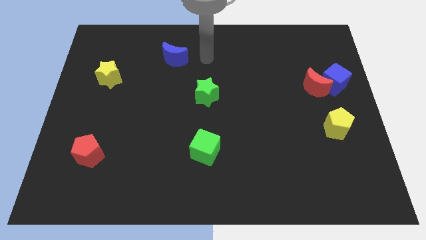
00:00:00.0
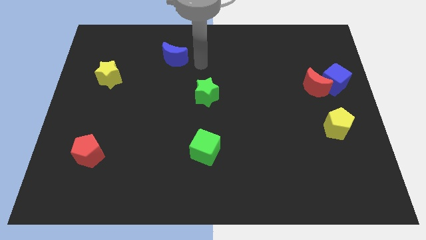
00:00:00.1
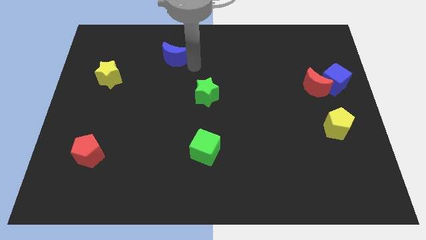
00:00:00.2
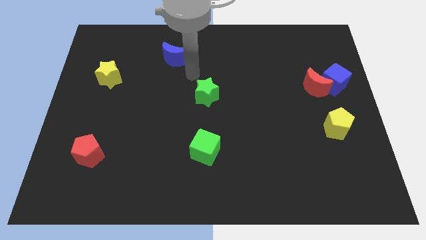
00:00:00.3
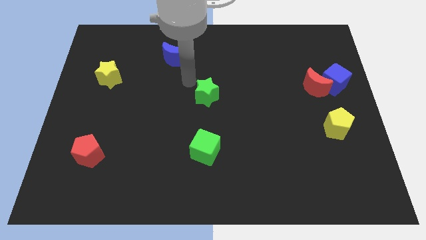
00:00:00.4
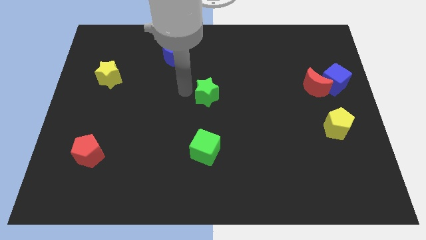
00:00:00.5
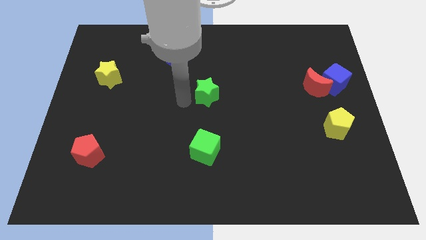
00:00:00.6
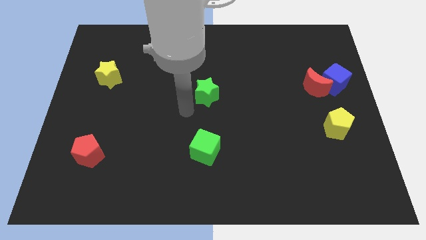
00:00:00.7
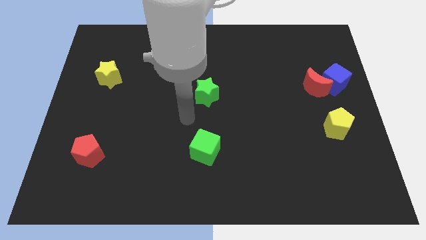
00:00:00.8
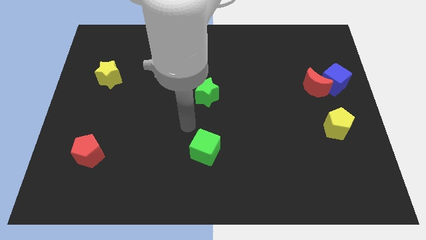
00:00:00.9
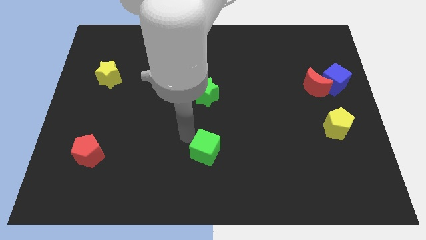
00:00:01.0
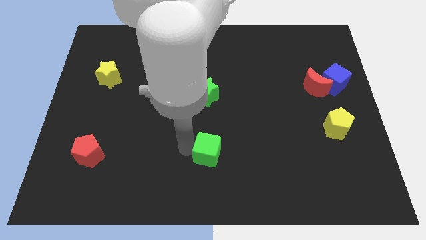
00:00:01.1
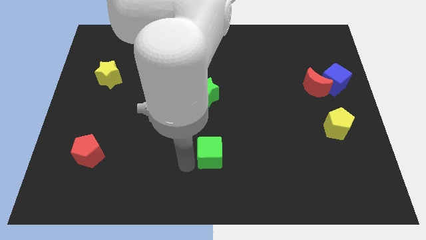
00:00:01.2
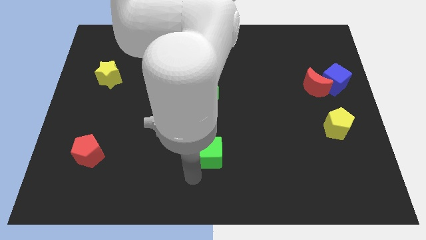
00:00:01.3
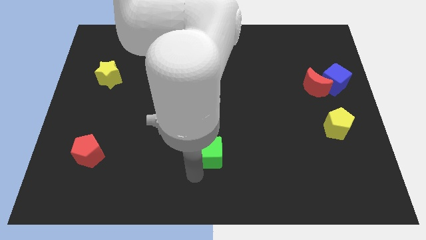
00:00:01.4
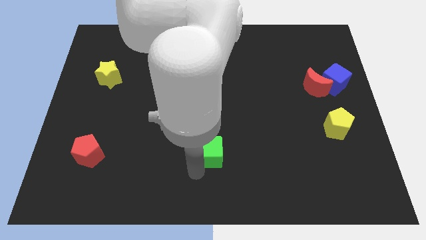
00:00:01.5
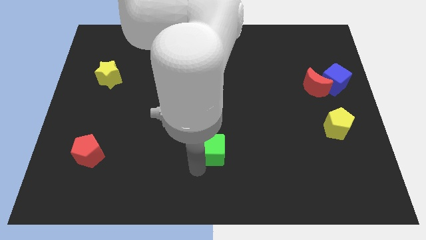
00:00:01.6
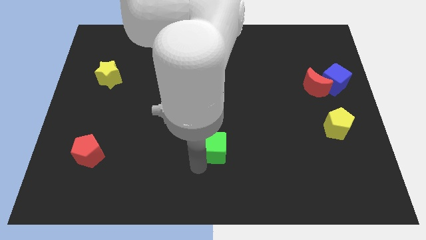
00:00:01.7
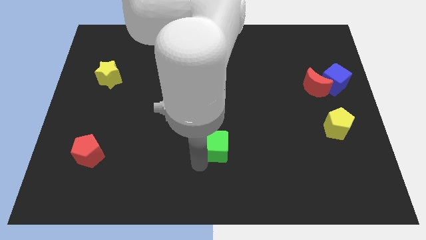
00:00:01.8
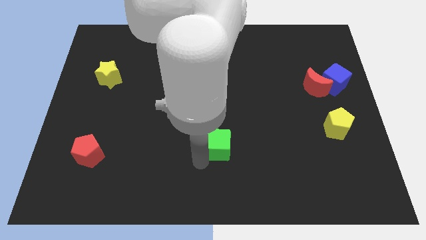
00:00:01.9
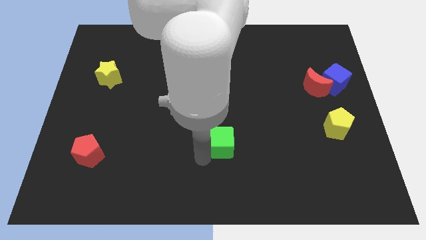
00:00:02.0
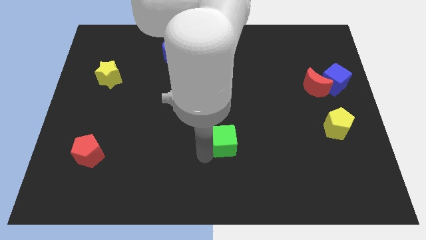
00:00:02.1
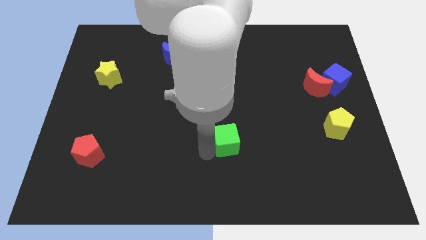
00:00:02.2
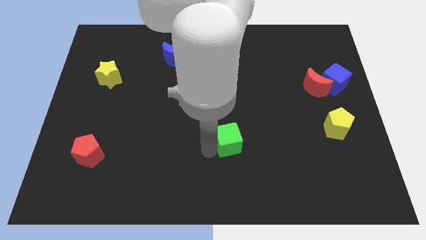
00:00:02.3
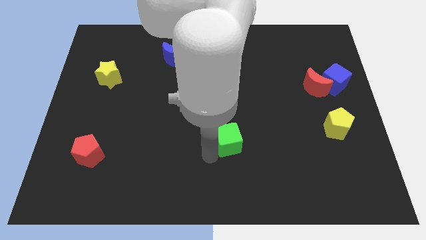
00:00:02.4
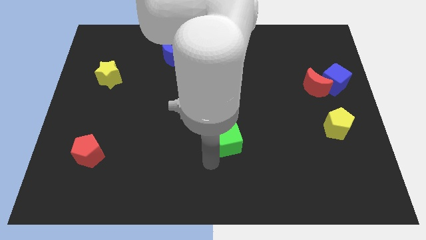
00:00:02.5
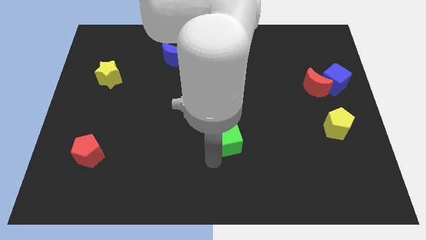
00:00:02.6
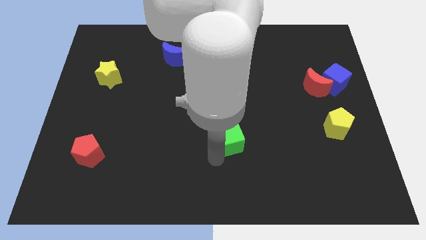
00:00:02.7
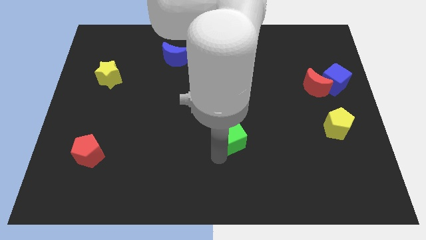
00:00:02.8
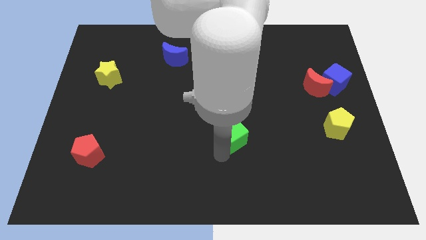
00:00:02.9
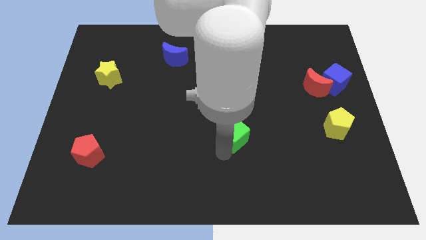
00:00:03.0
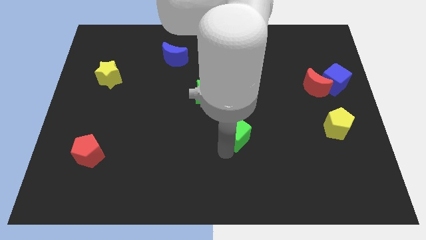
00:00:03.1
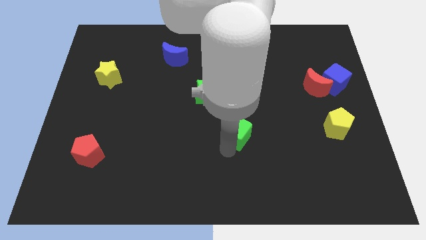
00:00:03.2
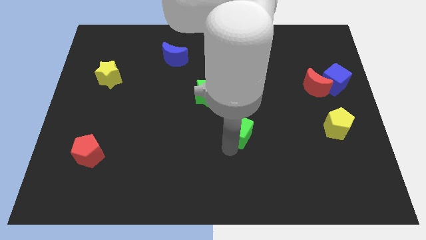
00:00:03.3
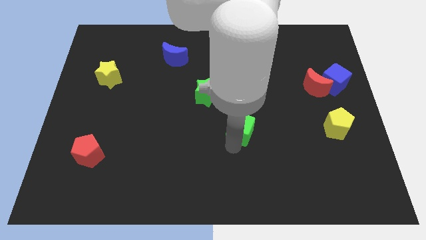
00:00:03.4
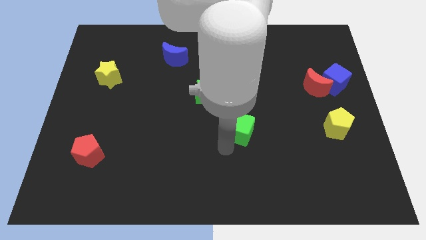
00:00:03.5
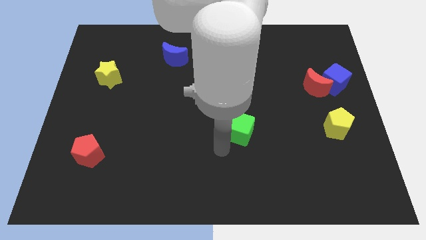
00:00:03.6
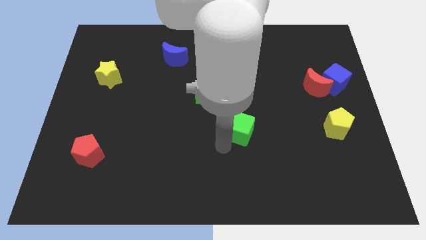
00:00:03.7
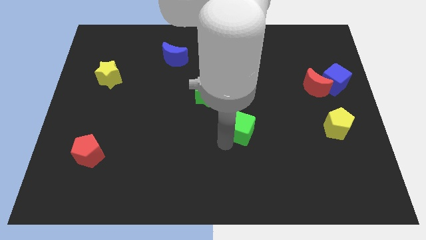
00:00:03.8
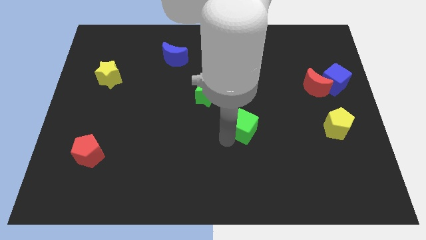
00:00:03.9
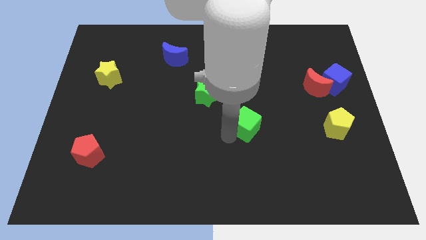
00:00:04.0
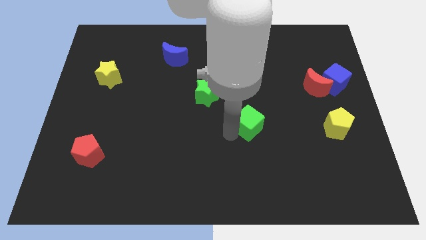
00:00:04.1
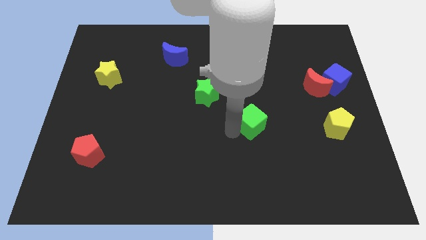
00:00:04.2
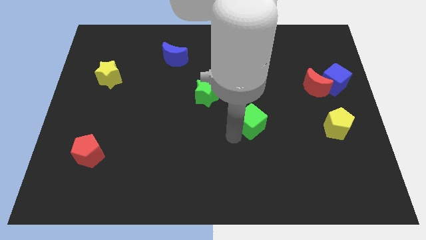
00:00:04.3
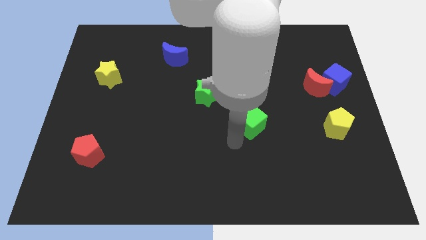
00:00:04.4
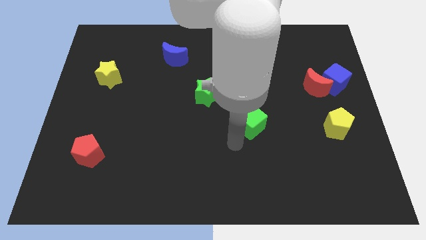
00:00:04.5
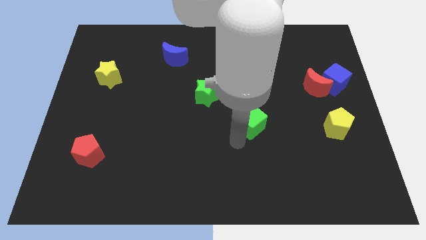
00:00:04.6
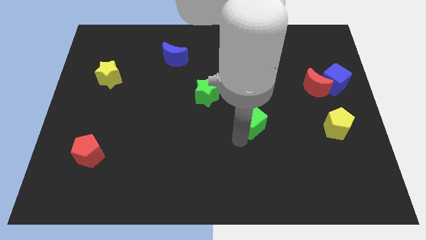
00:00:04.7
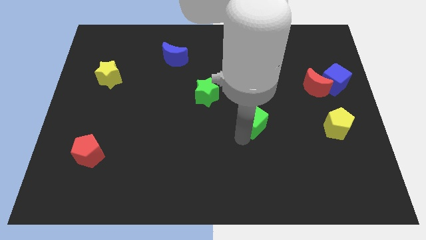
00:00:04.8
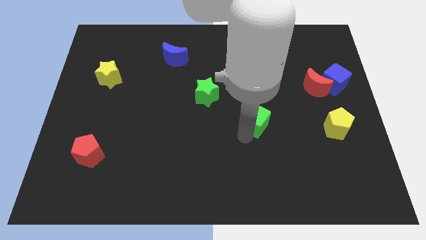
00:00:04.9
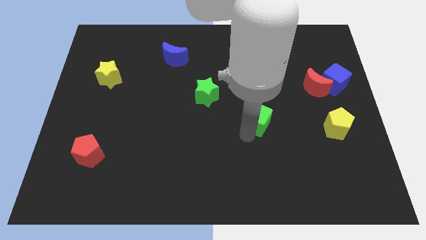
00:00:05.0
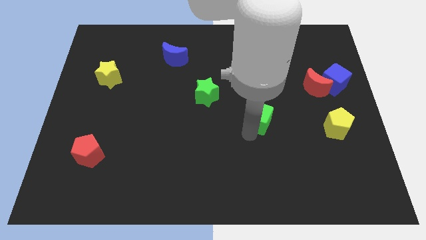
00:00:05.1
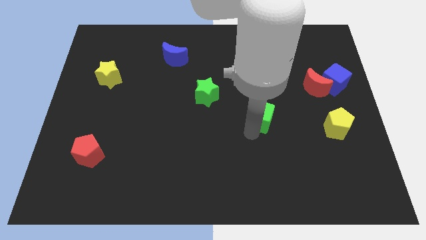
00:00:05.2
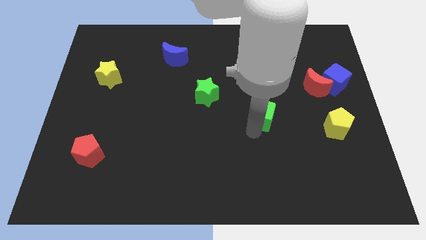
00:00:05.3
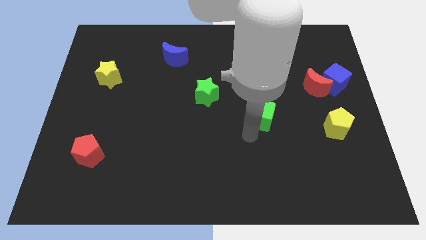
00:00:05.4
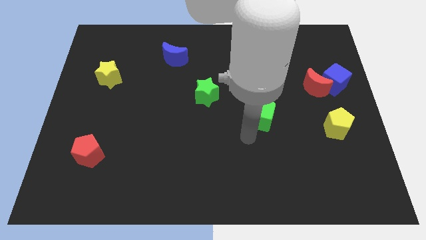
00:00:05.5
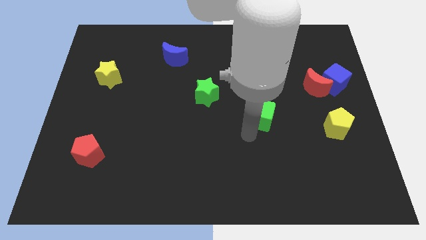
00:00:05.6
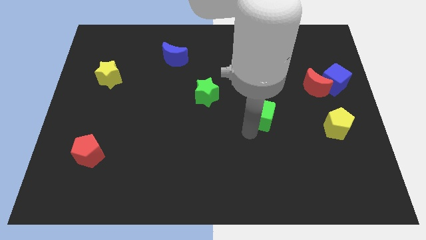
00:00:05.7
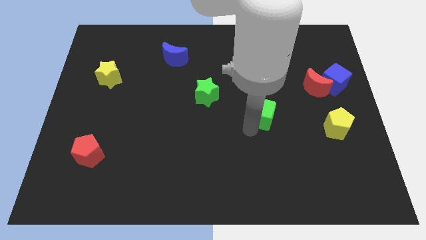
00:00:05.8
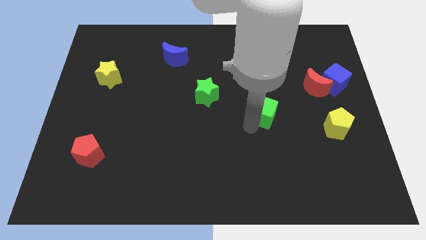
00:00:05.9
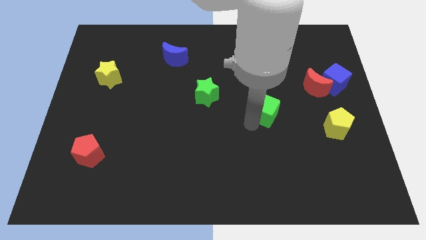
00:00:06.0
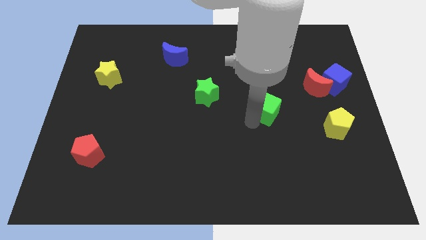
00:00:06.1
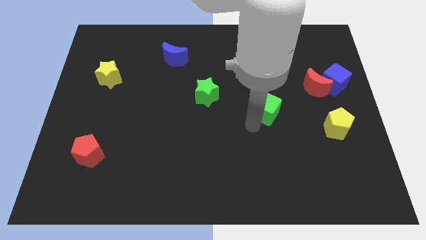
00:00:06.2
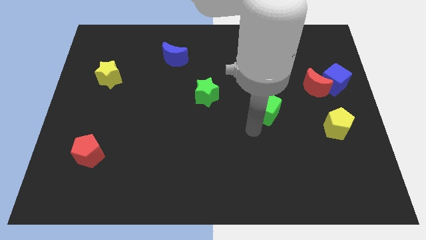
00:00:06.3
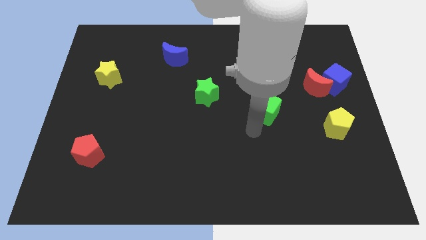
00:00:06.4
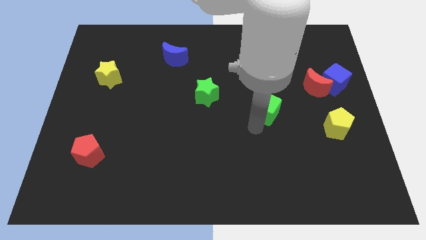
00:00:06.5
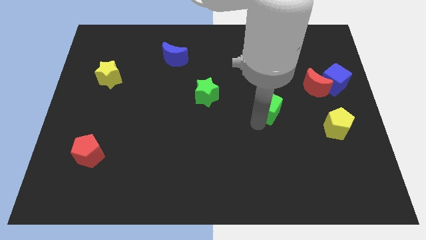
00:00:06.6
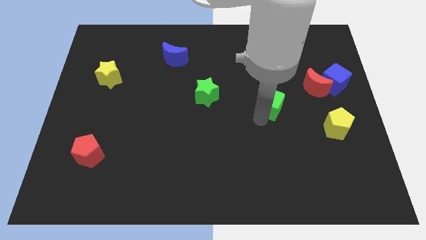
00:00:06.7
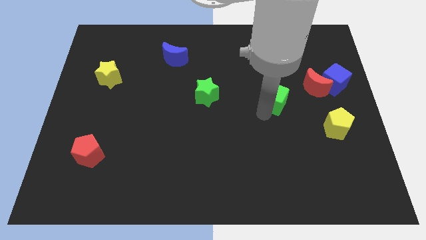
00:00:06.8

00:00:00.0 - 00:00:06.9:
slide the green cube up and to the right

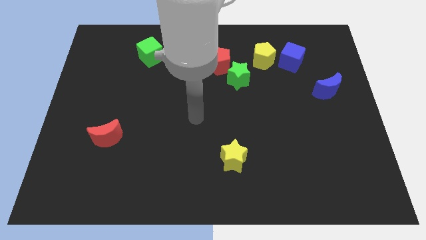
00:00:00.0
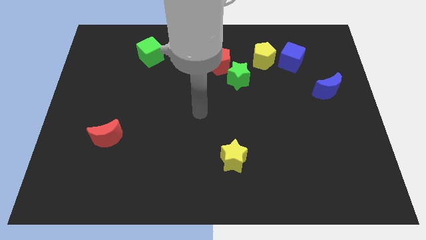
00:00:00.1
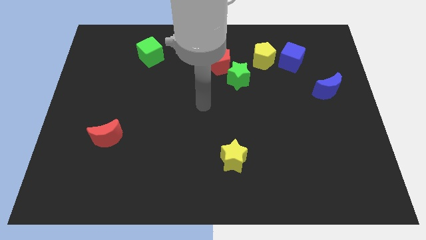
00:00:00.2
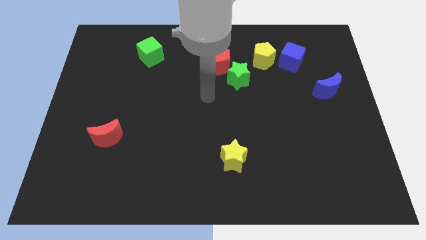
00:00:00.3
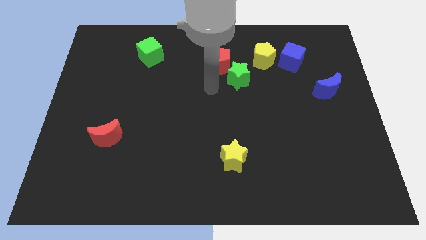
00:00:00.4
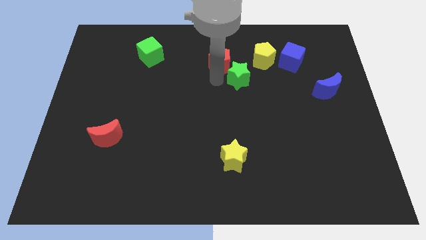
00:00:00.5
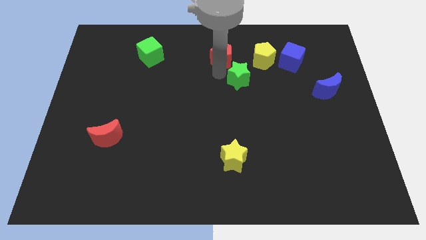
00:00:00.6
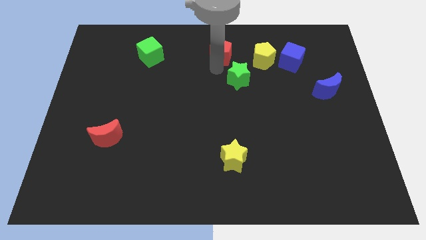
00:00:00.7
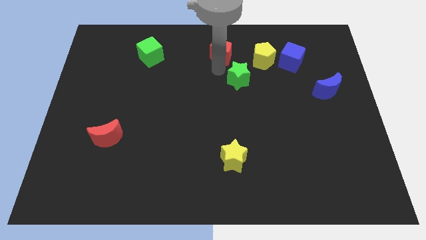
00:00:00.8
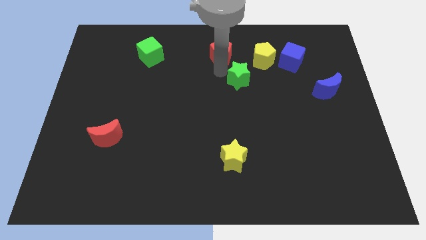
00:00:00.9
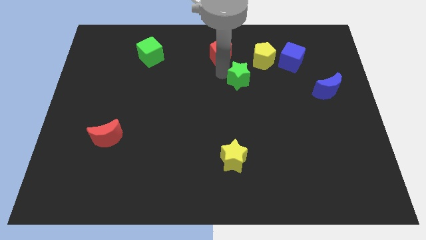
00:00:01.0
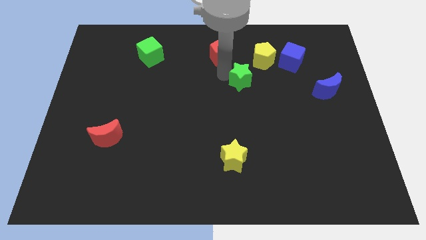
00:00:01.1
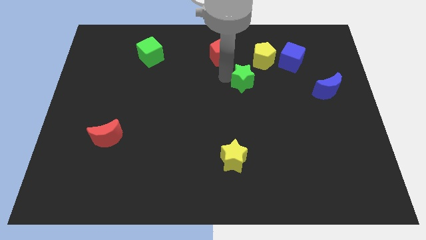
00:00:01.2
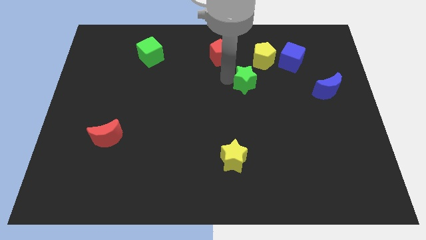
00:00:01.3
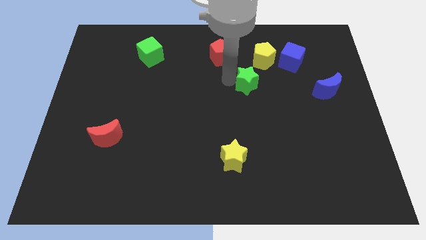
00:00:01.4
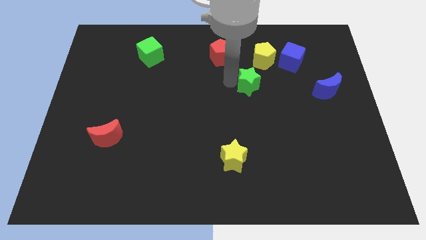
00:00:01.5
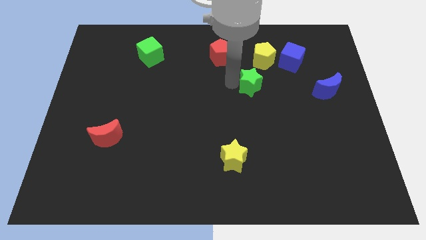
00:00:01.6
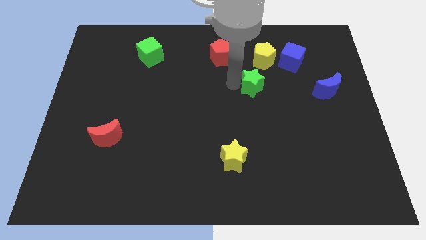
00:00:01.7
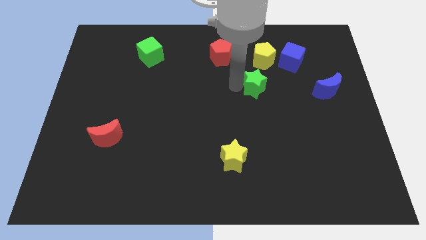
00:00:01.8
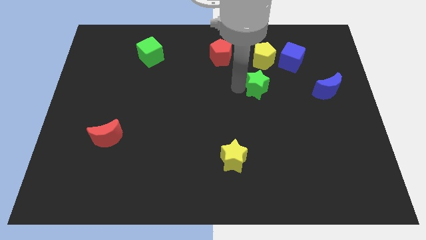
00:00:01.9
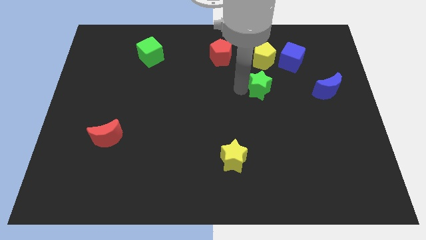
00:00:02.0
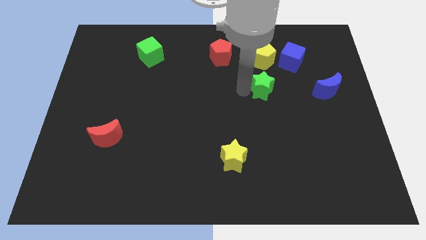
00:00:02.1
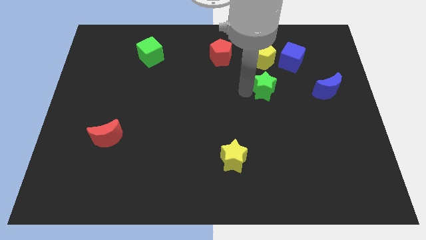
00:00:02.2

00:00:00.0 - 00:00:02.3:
move the green star down and then right somewhat
